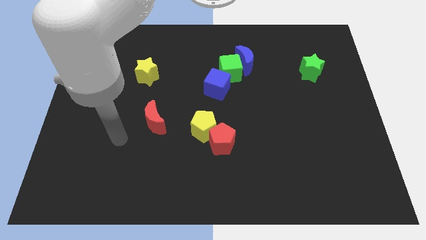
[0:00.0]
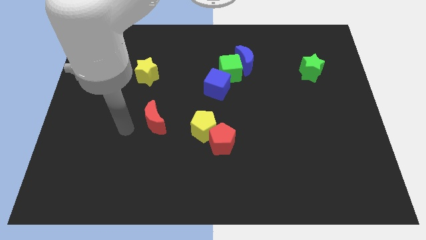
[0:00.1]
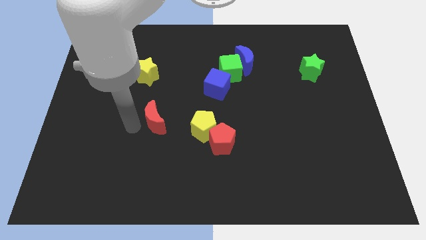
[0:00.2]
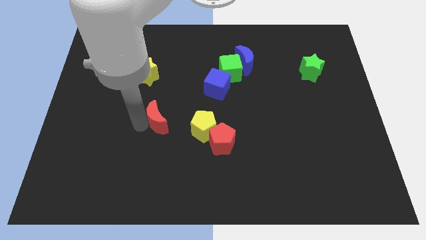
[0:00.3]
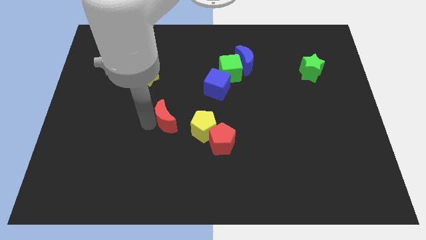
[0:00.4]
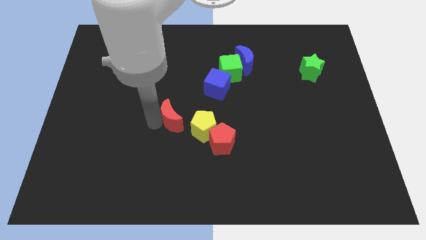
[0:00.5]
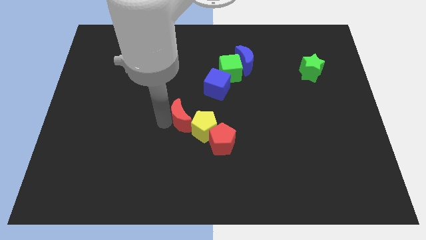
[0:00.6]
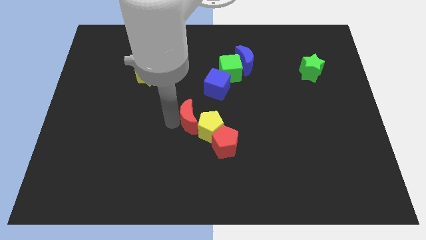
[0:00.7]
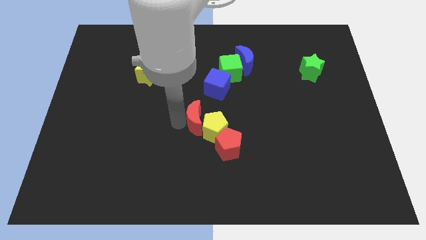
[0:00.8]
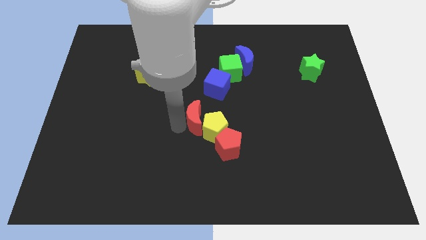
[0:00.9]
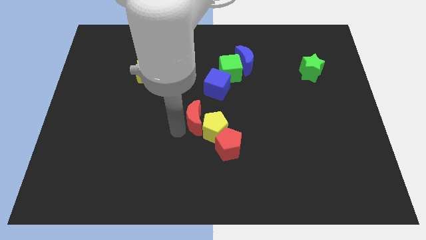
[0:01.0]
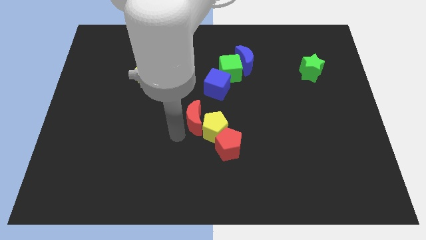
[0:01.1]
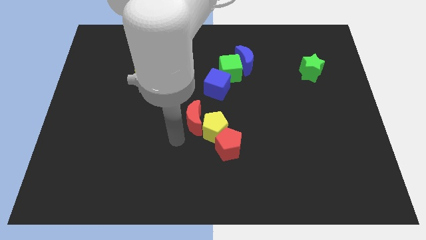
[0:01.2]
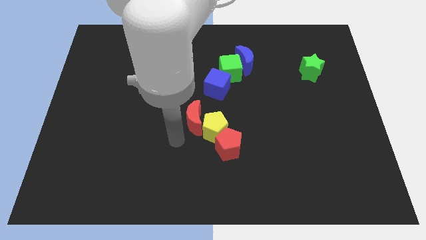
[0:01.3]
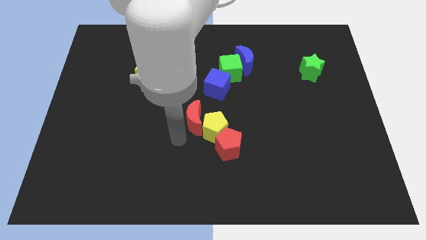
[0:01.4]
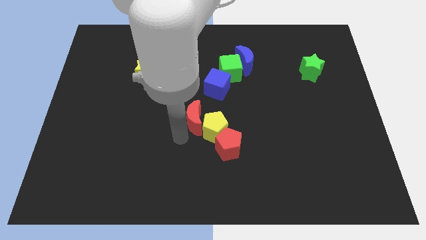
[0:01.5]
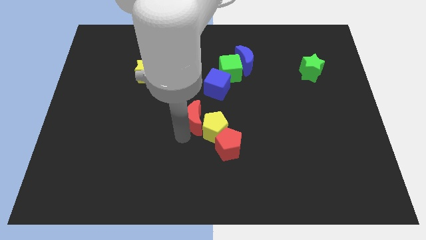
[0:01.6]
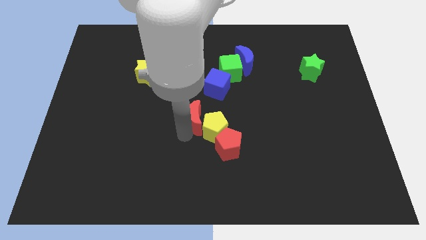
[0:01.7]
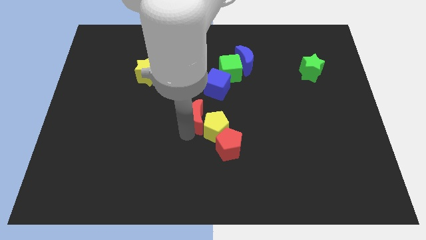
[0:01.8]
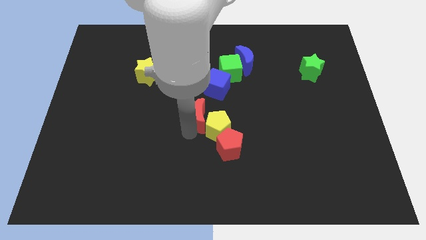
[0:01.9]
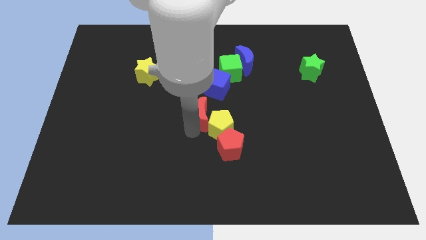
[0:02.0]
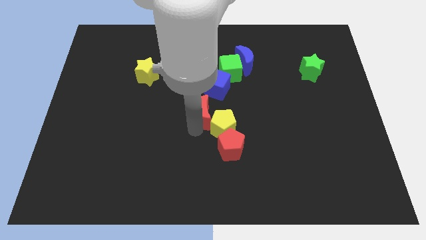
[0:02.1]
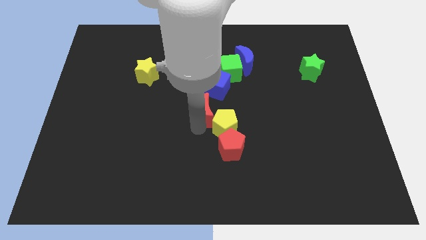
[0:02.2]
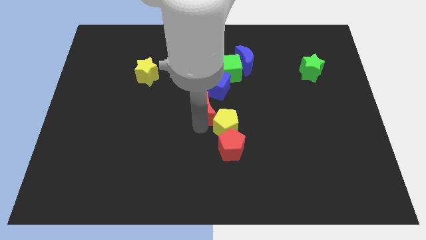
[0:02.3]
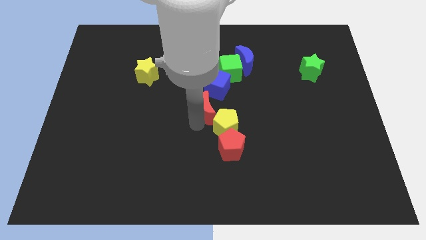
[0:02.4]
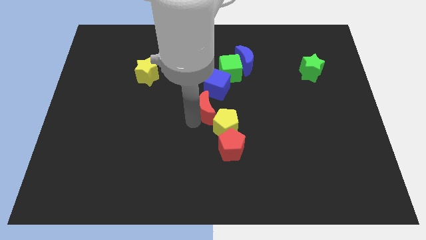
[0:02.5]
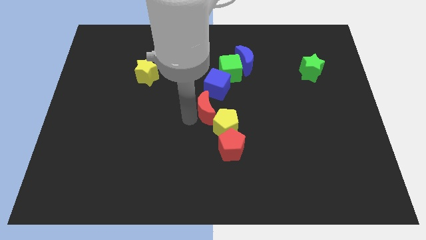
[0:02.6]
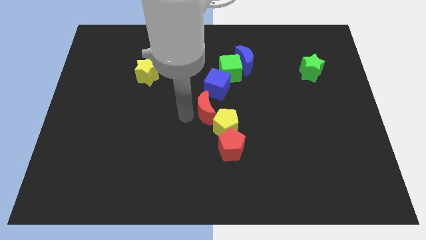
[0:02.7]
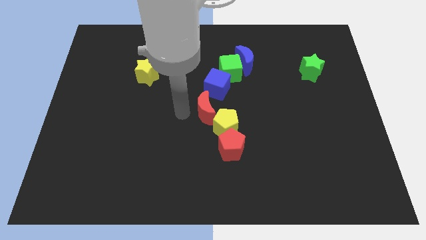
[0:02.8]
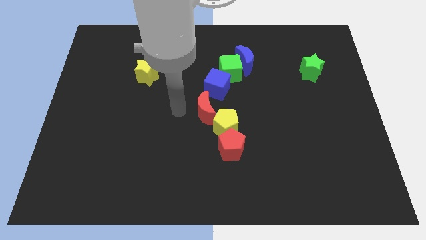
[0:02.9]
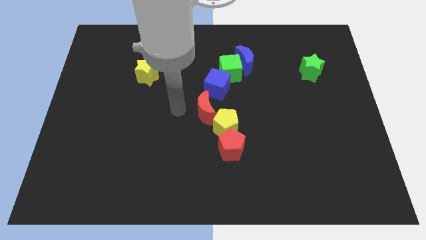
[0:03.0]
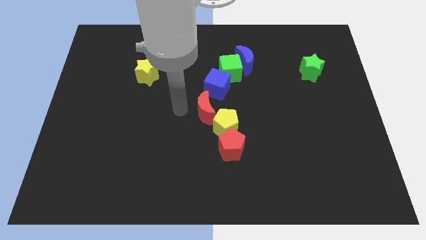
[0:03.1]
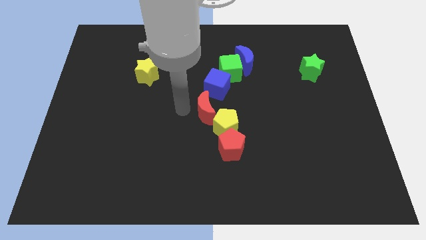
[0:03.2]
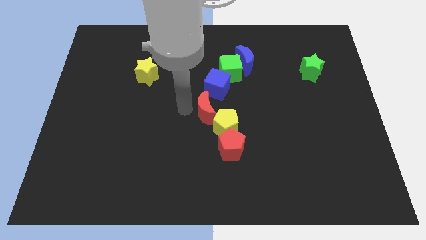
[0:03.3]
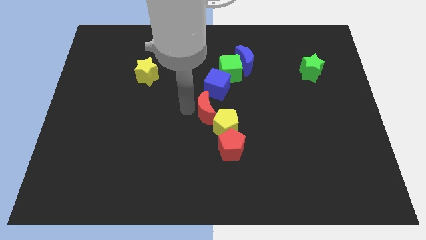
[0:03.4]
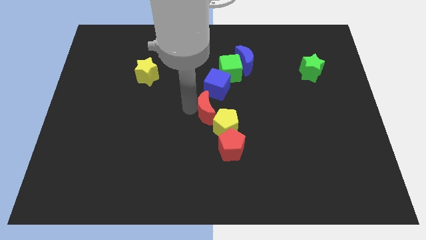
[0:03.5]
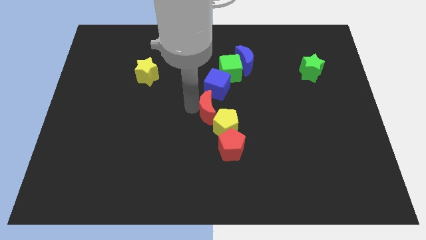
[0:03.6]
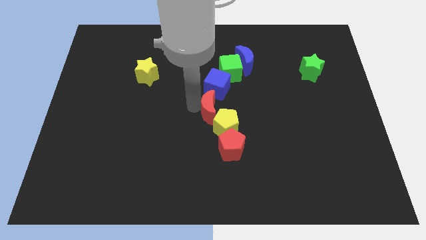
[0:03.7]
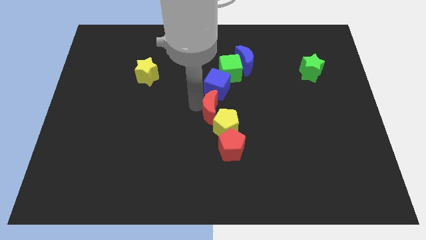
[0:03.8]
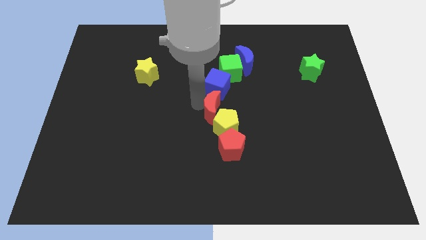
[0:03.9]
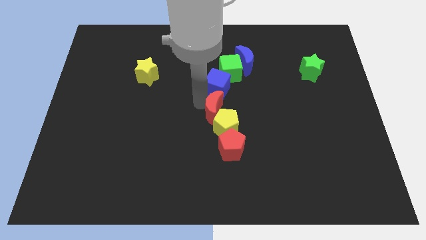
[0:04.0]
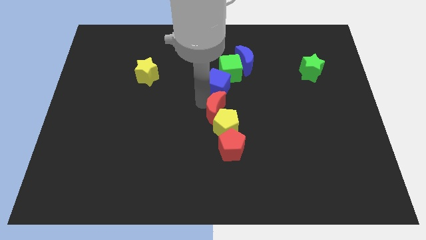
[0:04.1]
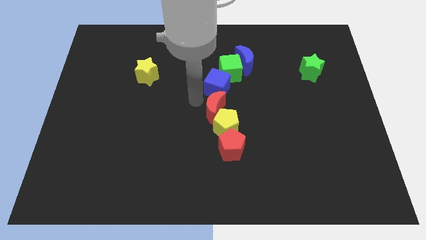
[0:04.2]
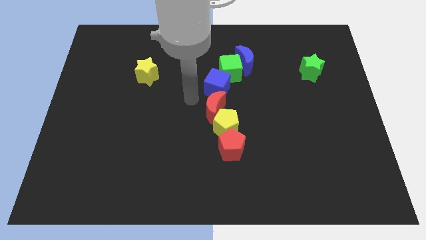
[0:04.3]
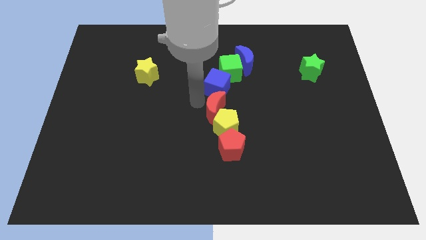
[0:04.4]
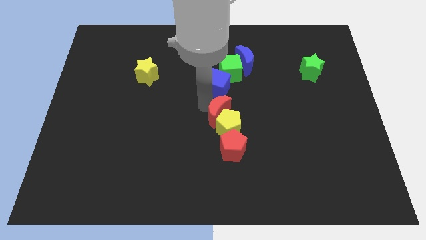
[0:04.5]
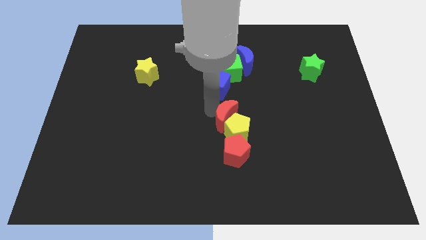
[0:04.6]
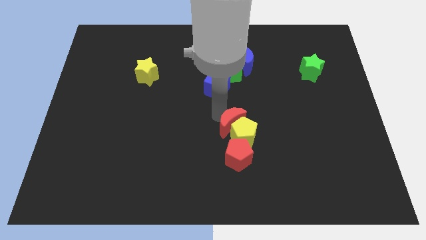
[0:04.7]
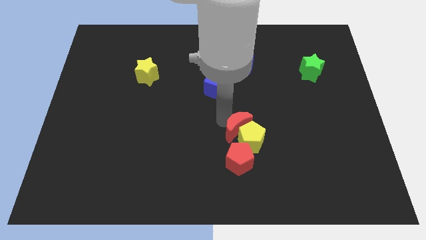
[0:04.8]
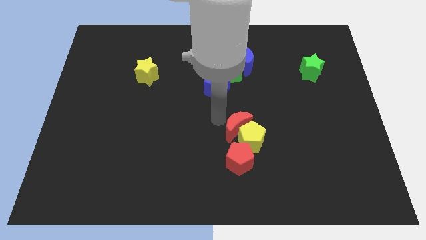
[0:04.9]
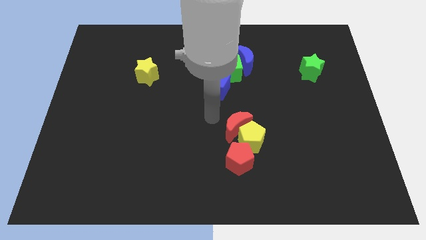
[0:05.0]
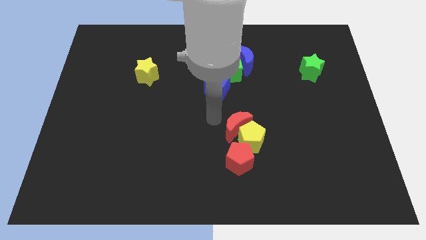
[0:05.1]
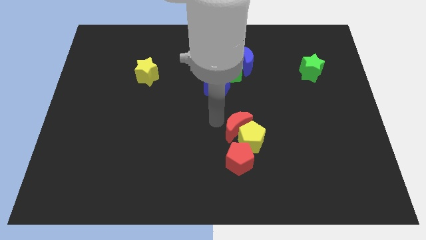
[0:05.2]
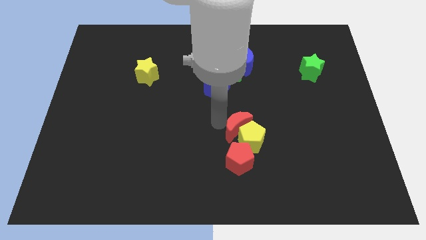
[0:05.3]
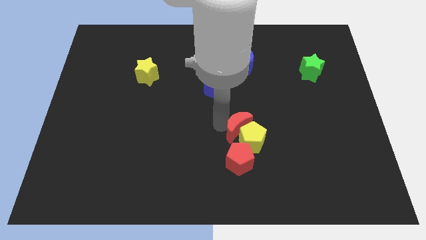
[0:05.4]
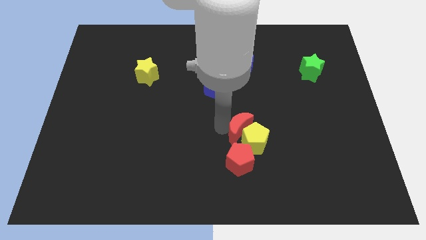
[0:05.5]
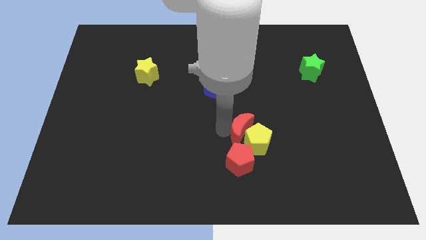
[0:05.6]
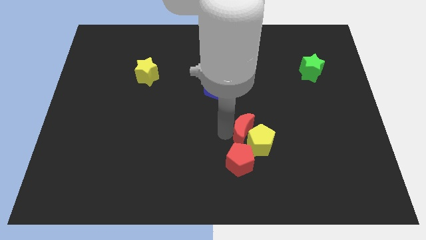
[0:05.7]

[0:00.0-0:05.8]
move the red moon to the top right of the red pentagon

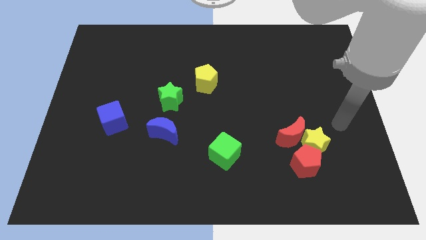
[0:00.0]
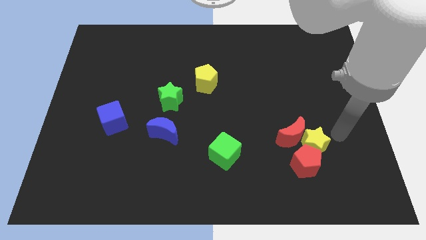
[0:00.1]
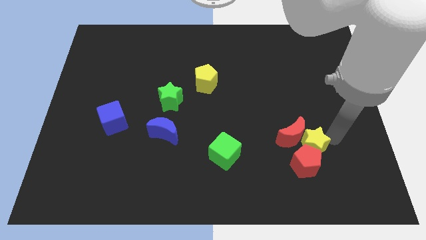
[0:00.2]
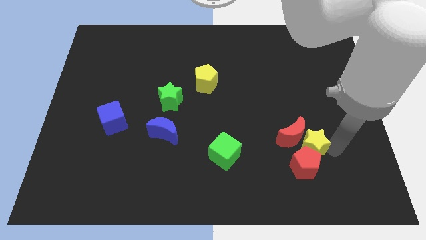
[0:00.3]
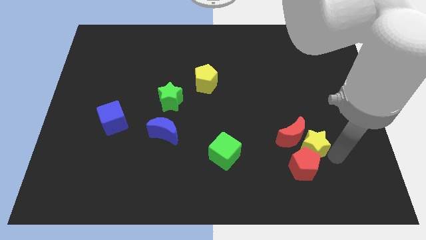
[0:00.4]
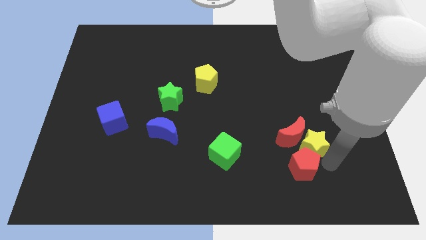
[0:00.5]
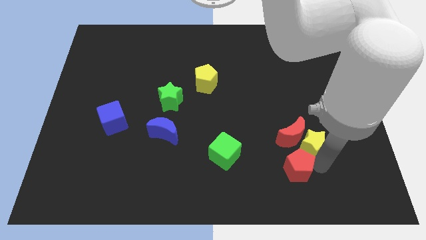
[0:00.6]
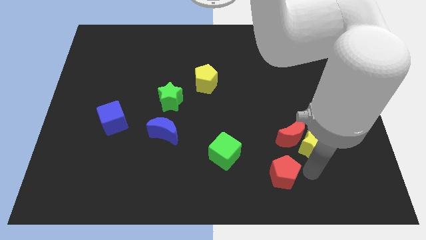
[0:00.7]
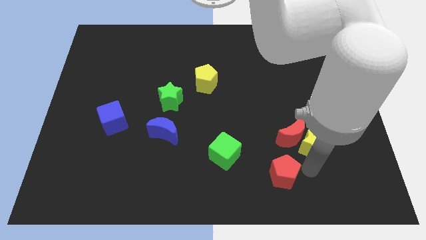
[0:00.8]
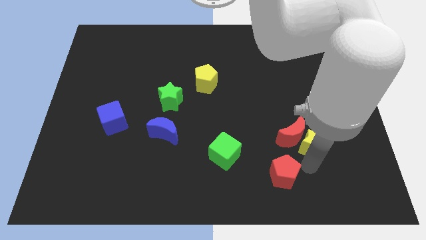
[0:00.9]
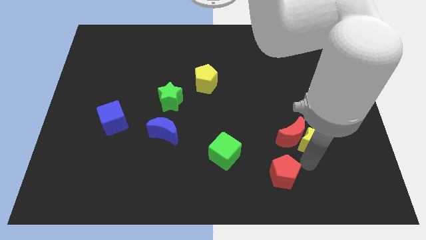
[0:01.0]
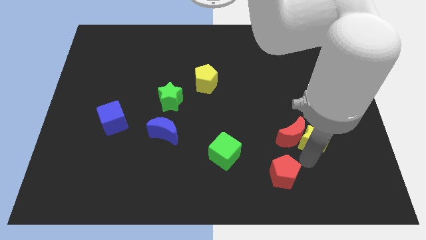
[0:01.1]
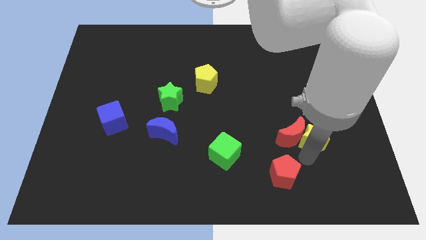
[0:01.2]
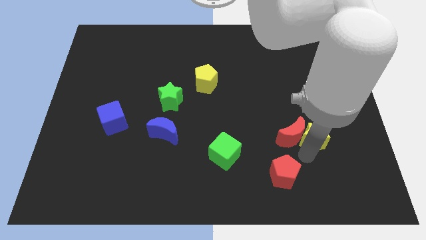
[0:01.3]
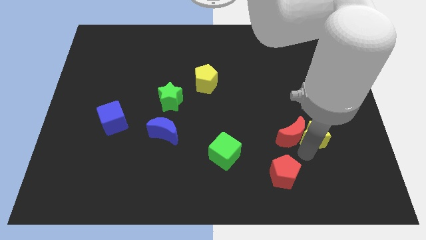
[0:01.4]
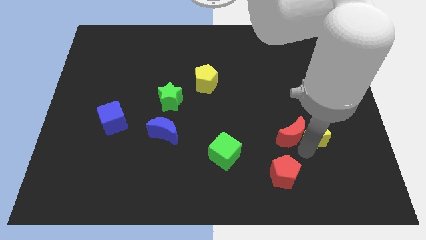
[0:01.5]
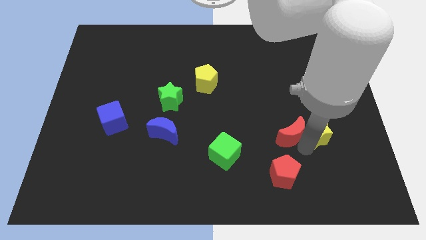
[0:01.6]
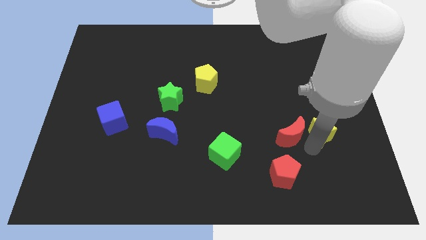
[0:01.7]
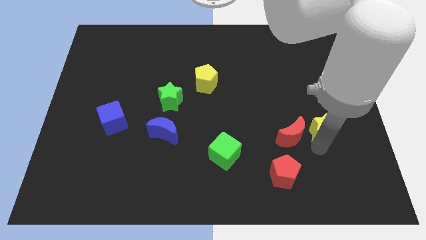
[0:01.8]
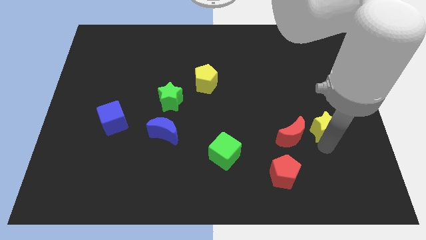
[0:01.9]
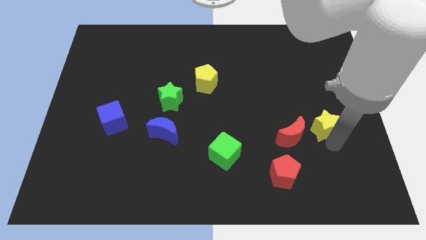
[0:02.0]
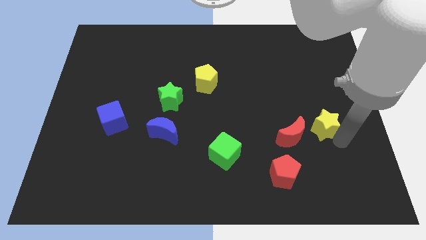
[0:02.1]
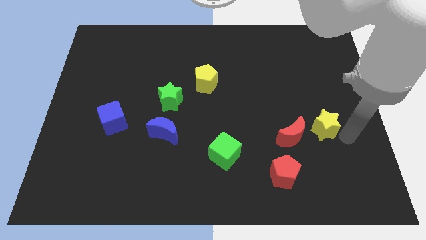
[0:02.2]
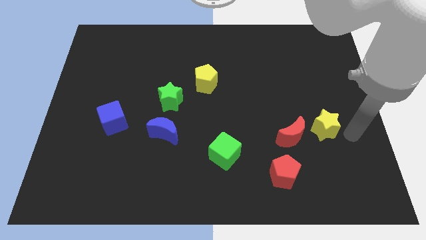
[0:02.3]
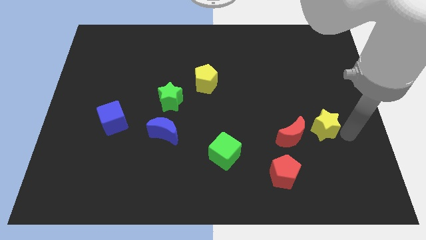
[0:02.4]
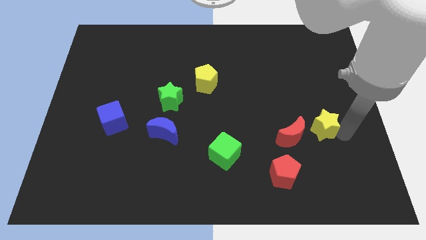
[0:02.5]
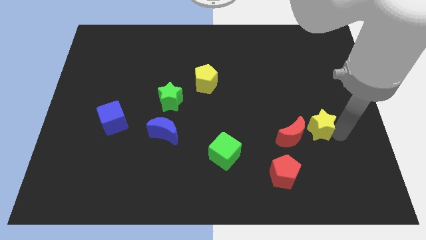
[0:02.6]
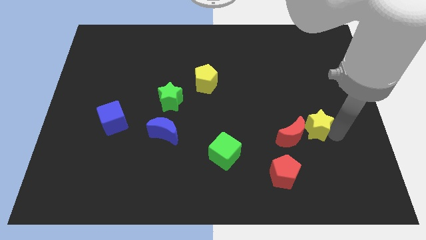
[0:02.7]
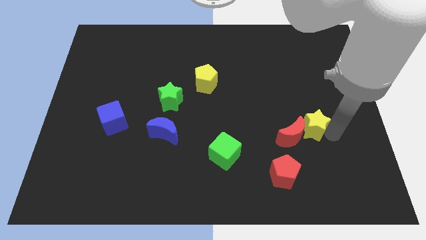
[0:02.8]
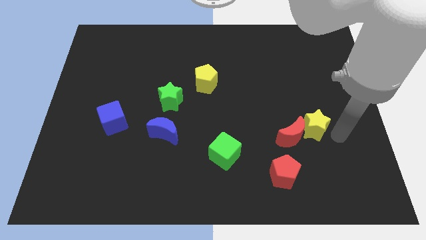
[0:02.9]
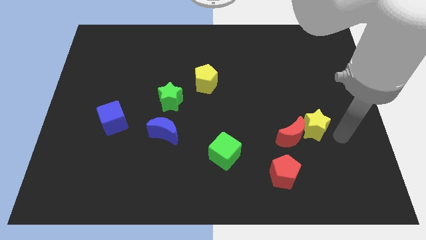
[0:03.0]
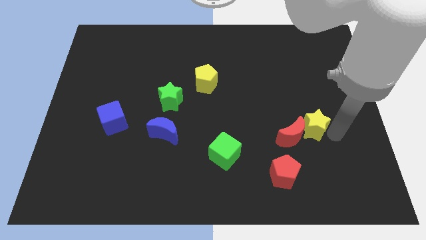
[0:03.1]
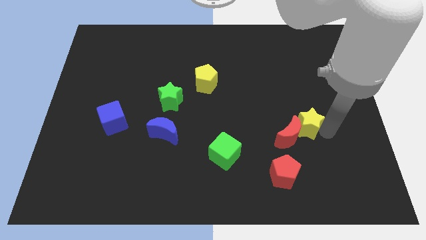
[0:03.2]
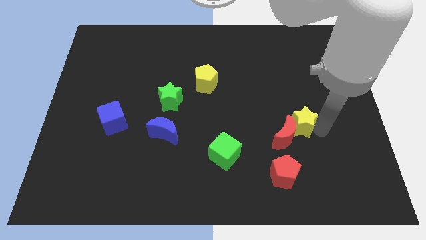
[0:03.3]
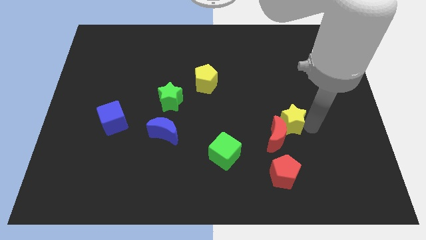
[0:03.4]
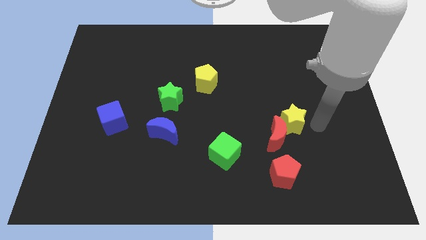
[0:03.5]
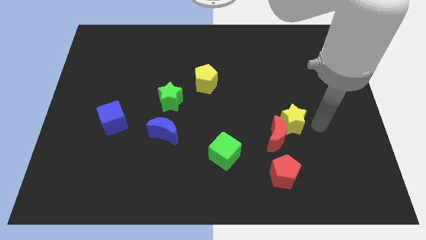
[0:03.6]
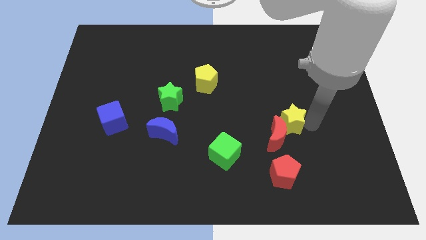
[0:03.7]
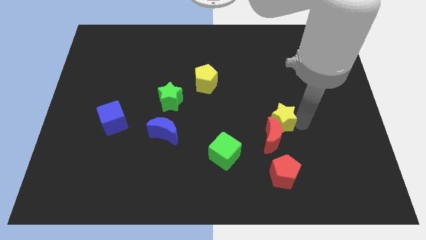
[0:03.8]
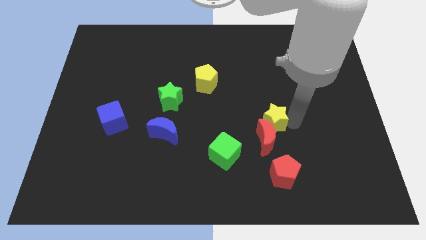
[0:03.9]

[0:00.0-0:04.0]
move the yellow star to the top left of the red moon
